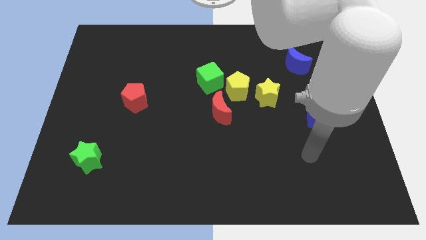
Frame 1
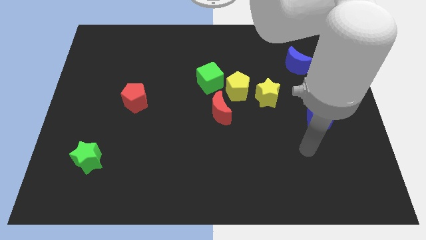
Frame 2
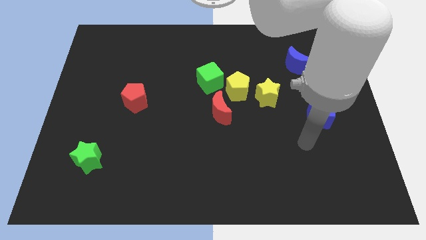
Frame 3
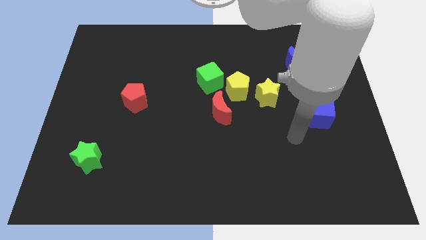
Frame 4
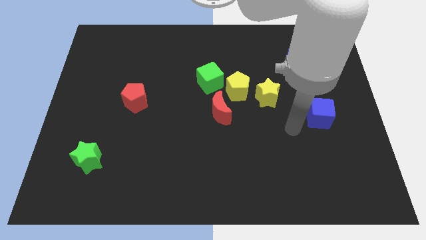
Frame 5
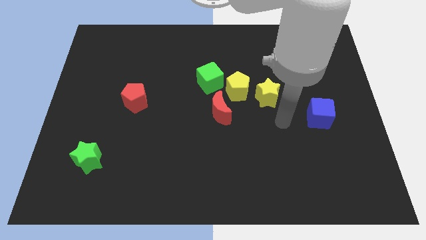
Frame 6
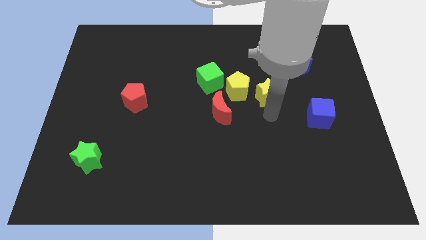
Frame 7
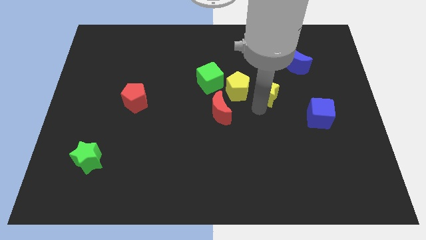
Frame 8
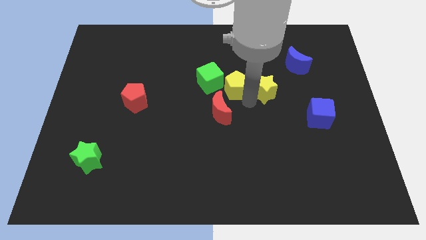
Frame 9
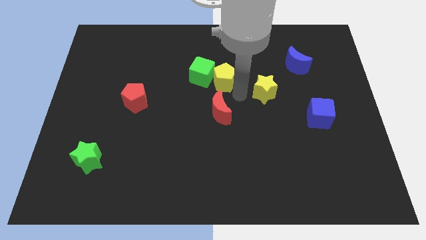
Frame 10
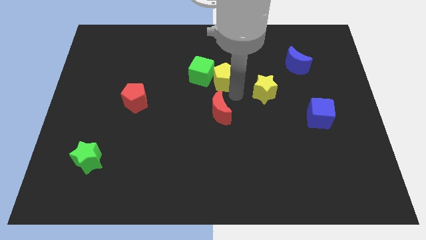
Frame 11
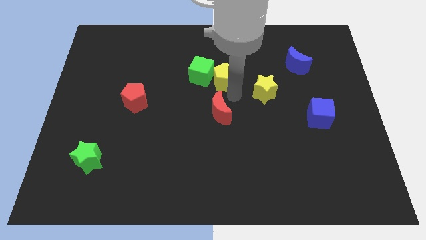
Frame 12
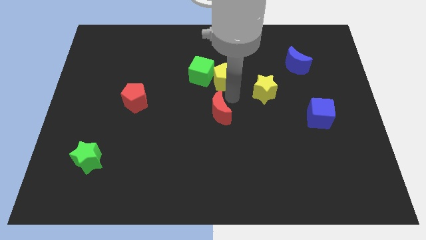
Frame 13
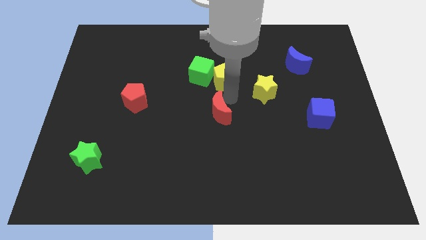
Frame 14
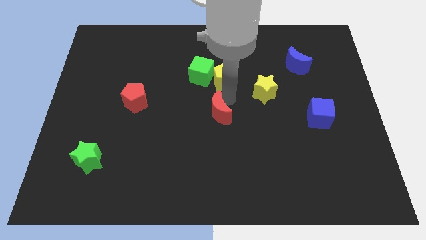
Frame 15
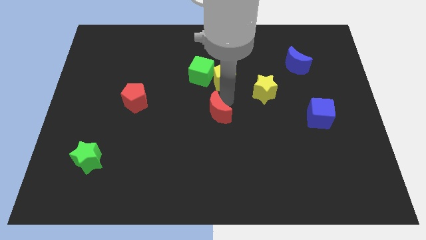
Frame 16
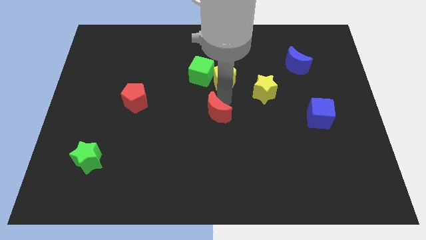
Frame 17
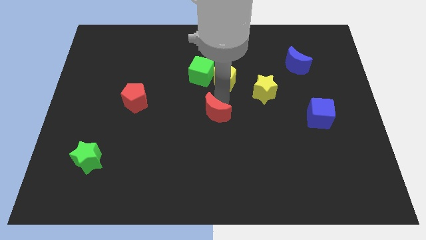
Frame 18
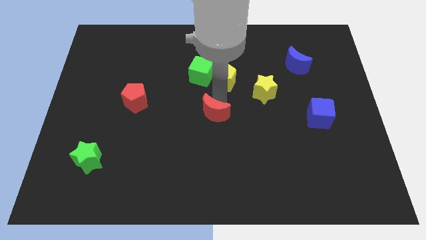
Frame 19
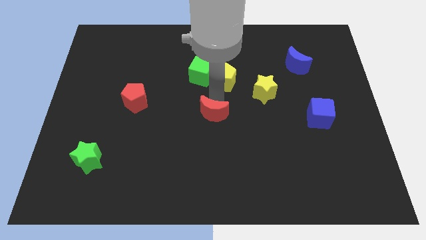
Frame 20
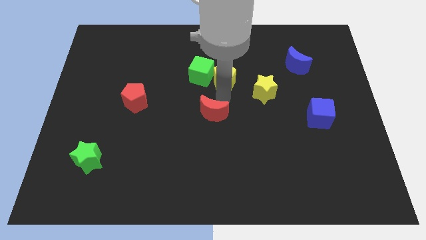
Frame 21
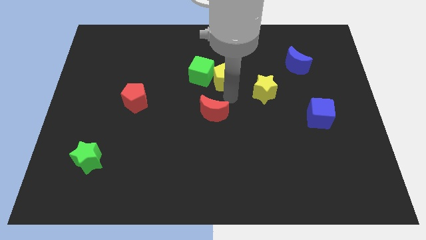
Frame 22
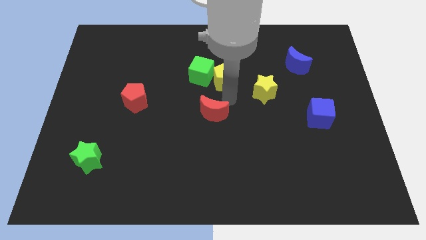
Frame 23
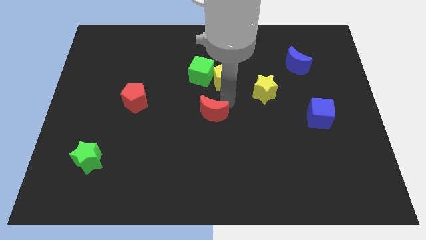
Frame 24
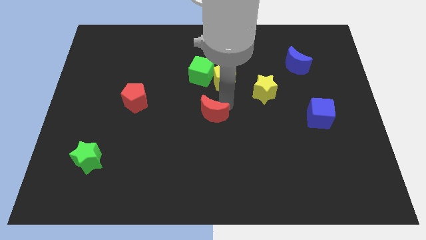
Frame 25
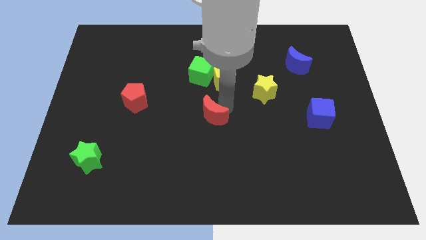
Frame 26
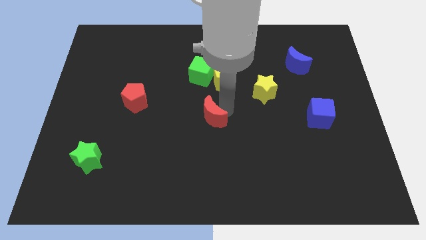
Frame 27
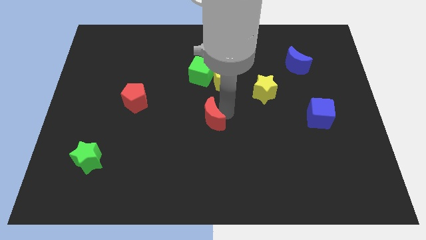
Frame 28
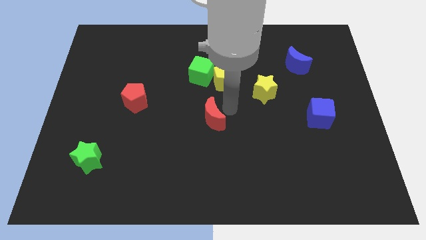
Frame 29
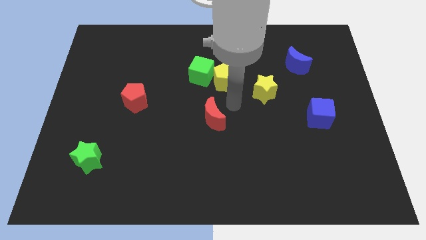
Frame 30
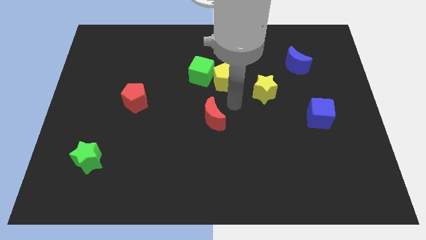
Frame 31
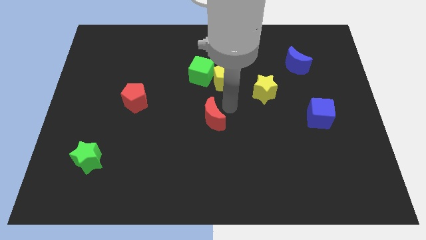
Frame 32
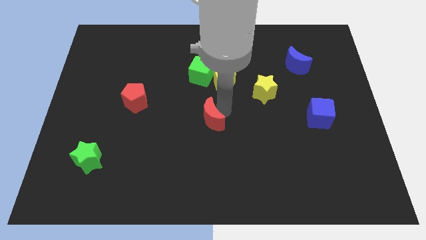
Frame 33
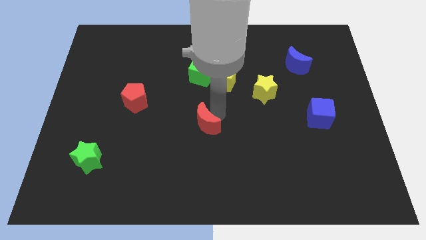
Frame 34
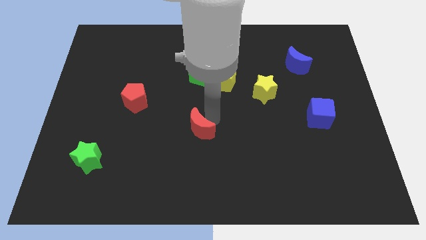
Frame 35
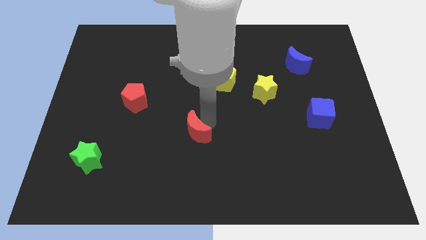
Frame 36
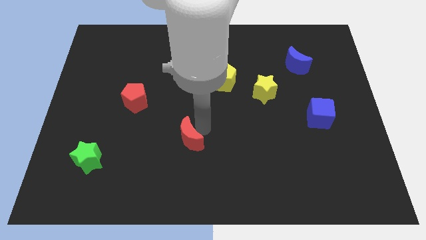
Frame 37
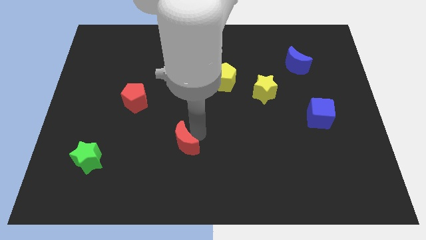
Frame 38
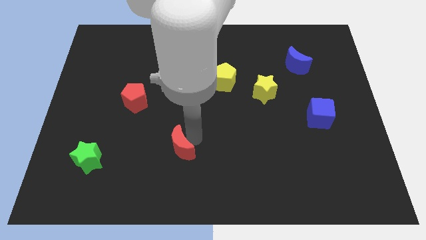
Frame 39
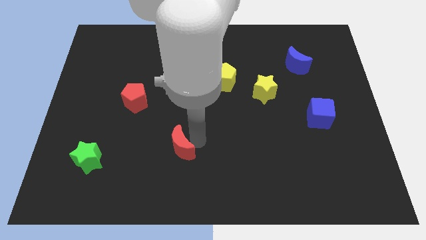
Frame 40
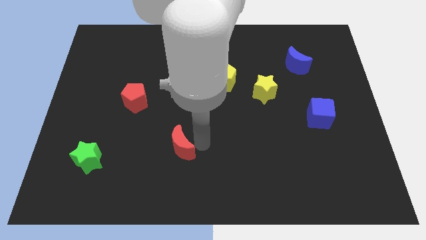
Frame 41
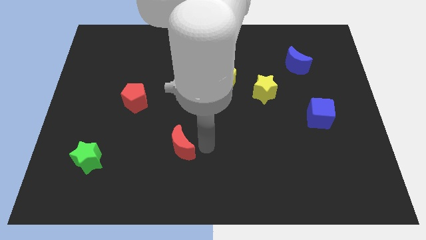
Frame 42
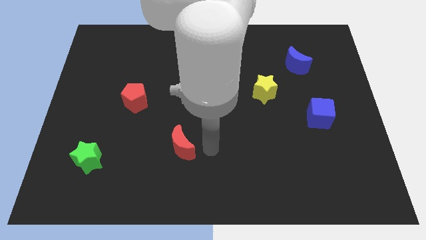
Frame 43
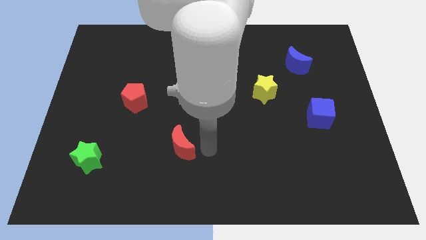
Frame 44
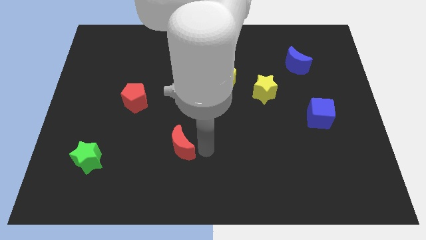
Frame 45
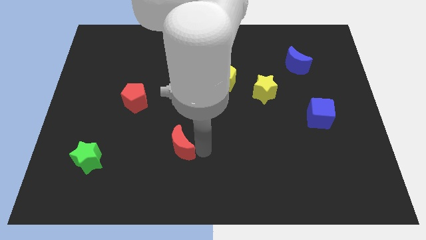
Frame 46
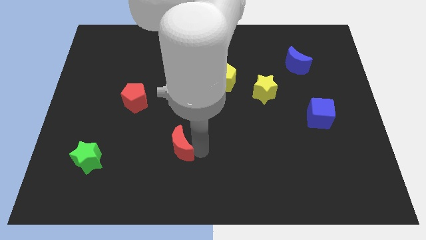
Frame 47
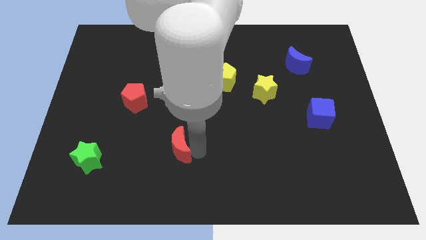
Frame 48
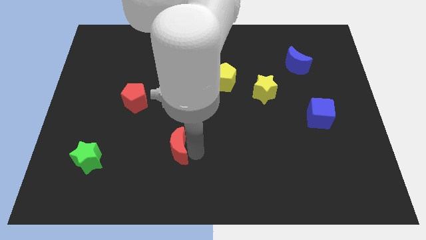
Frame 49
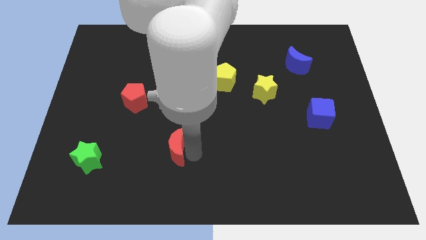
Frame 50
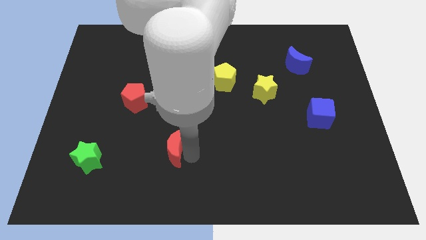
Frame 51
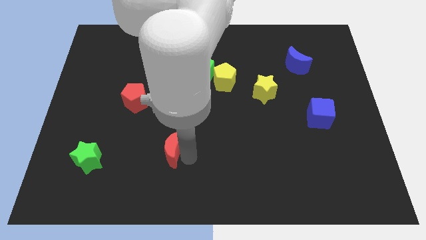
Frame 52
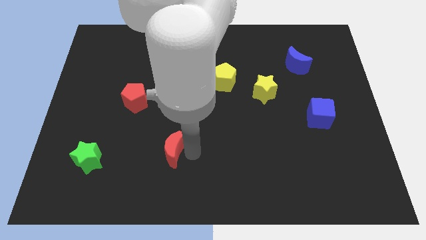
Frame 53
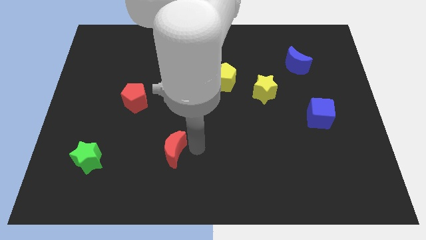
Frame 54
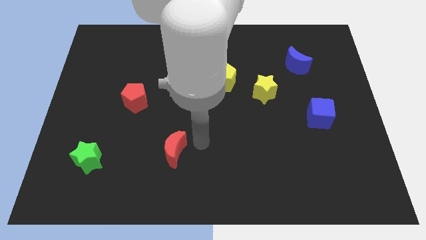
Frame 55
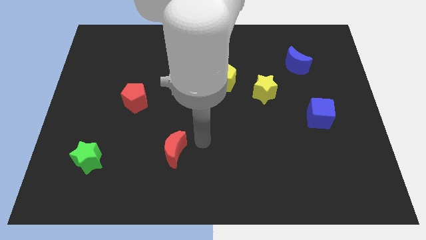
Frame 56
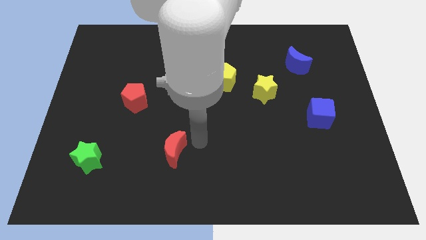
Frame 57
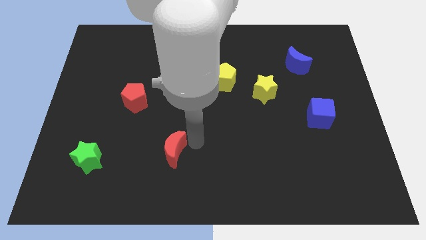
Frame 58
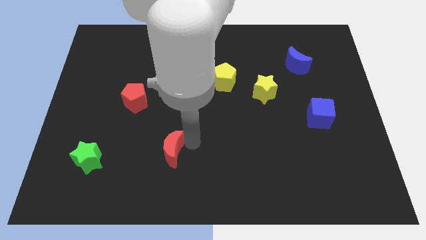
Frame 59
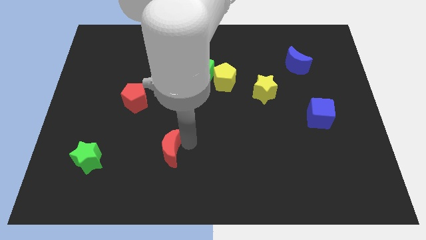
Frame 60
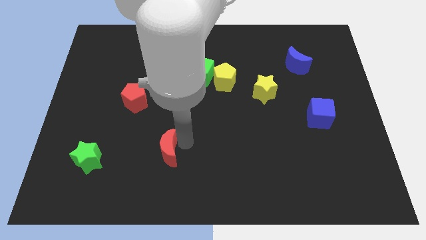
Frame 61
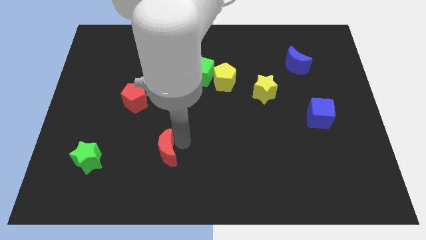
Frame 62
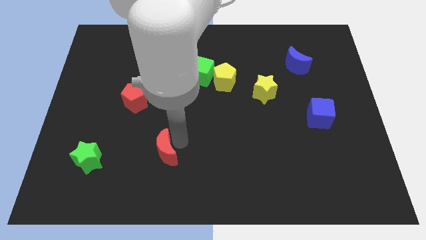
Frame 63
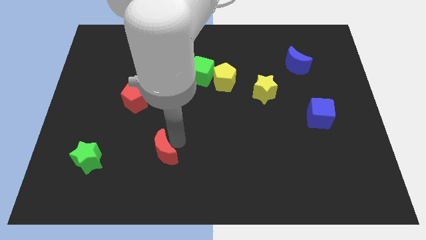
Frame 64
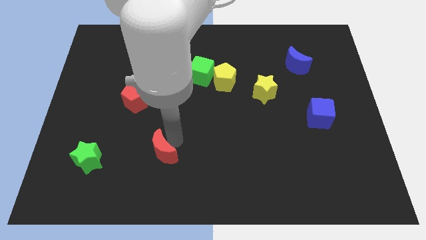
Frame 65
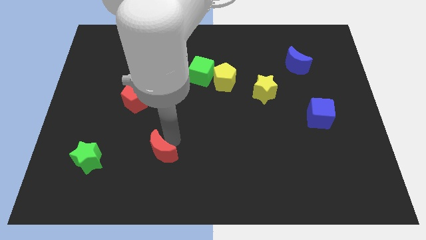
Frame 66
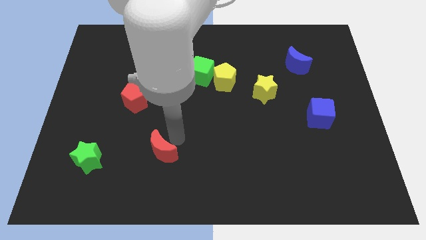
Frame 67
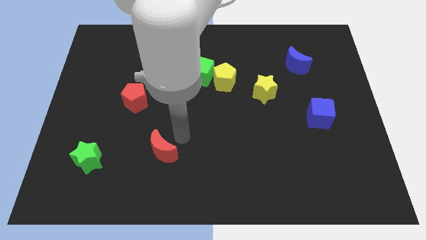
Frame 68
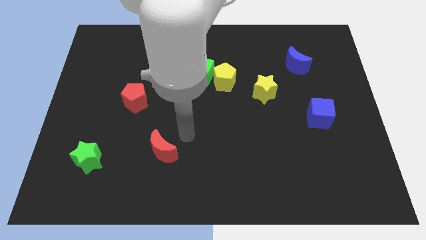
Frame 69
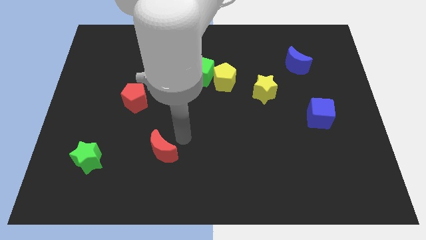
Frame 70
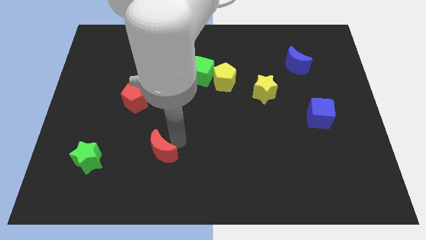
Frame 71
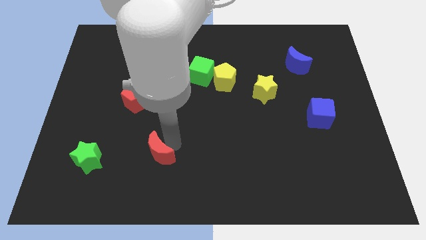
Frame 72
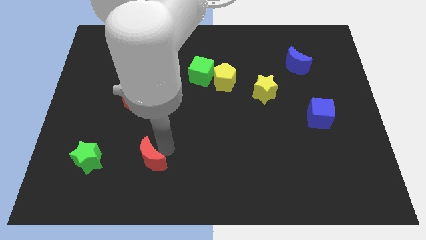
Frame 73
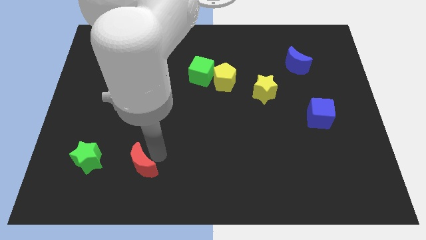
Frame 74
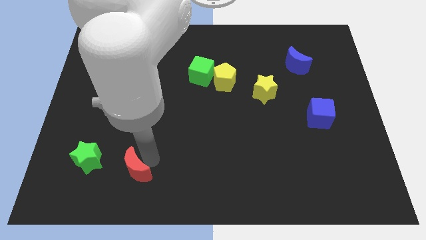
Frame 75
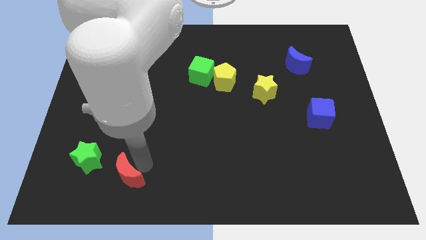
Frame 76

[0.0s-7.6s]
slide the red moon to the bottom right side of the green star

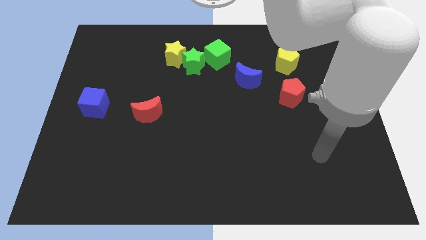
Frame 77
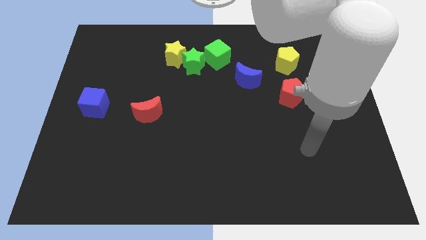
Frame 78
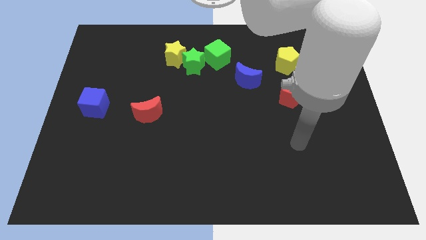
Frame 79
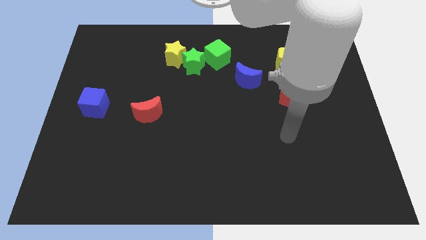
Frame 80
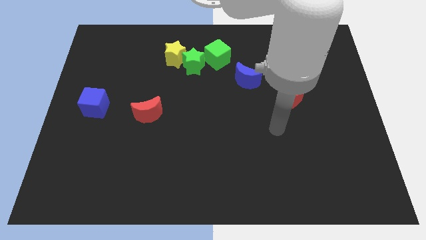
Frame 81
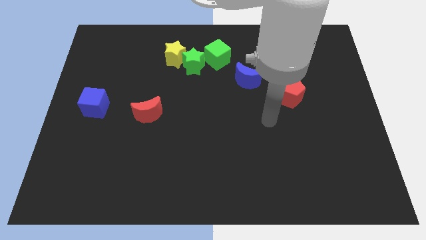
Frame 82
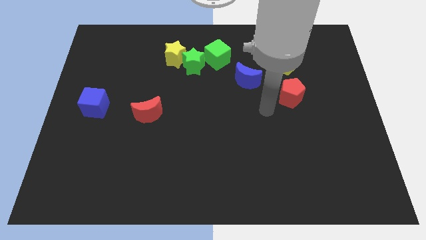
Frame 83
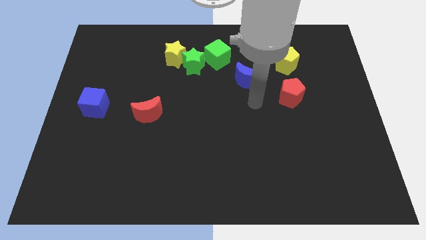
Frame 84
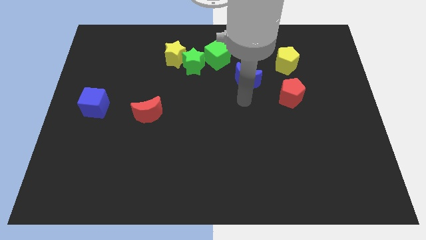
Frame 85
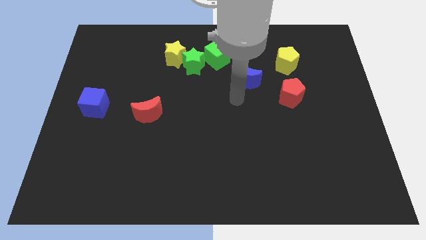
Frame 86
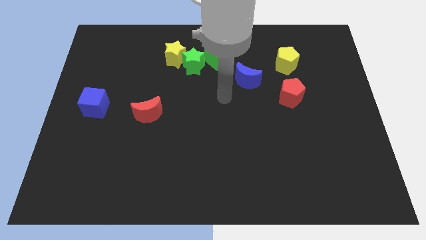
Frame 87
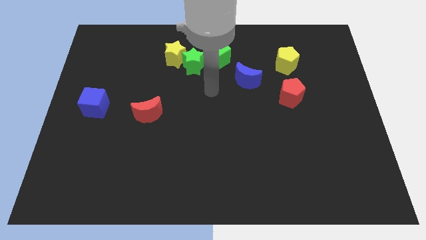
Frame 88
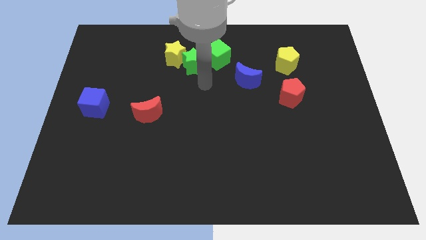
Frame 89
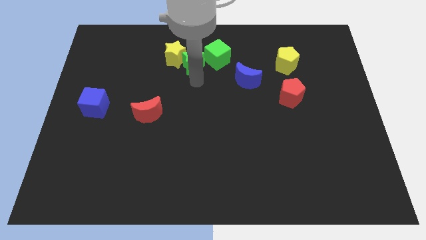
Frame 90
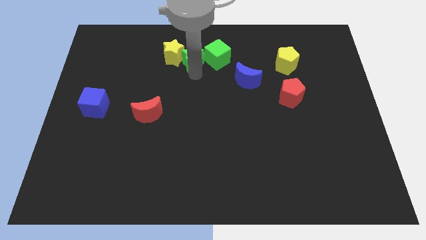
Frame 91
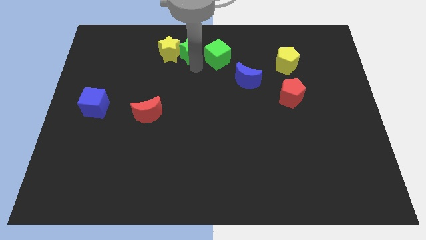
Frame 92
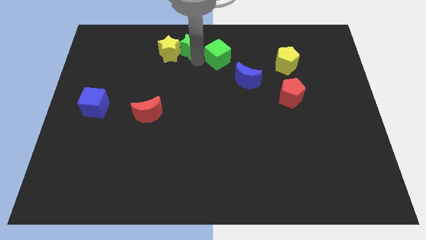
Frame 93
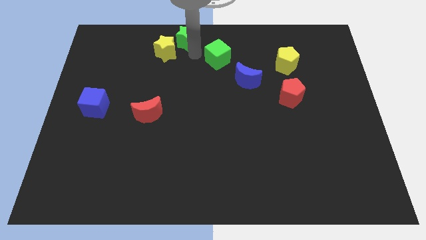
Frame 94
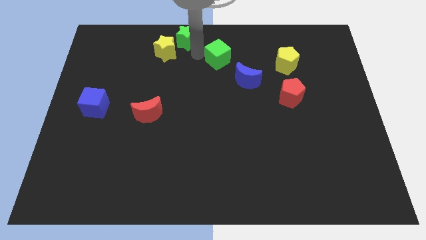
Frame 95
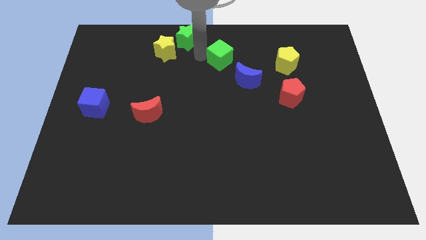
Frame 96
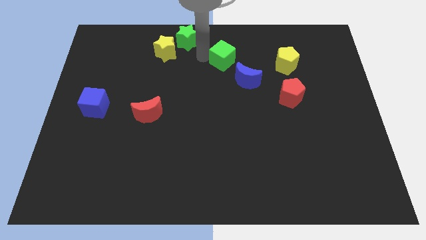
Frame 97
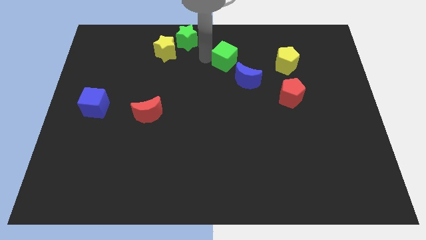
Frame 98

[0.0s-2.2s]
put the green cube to the left side of the yellow pentagon
